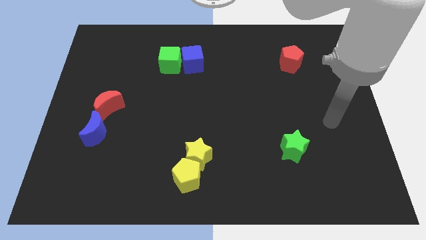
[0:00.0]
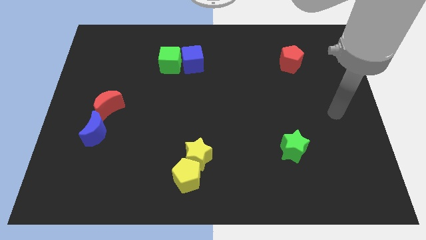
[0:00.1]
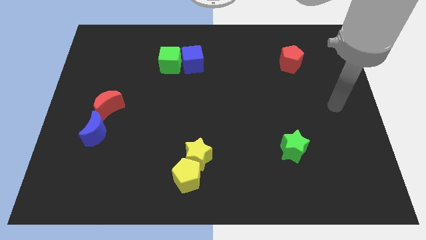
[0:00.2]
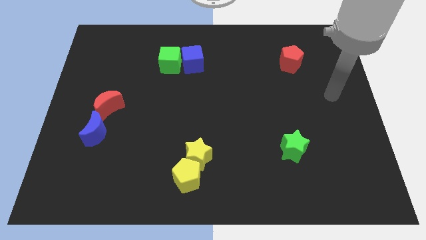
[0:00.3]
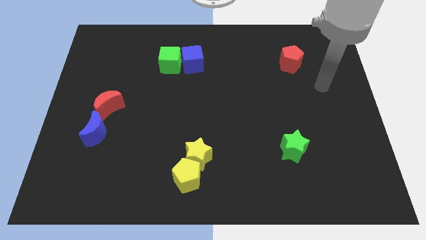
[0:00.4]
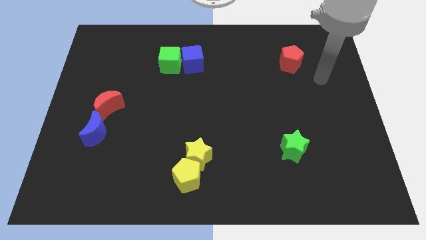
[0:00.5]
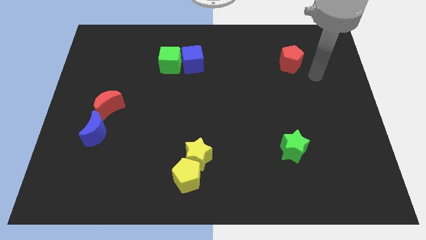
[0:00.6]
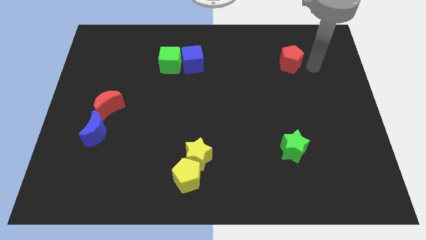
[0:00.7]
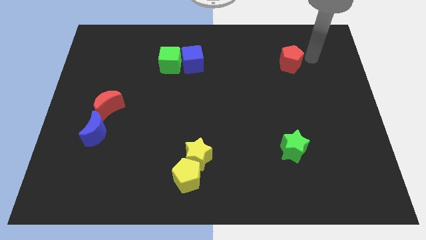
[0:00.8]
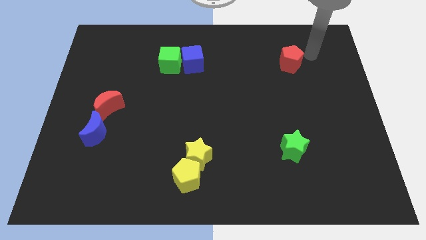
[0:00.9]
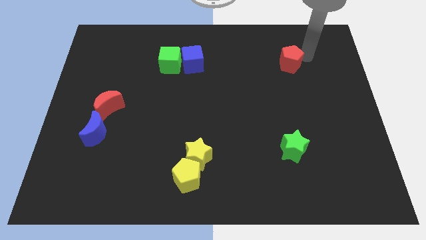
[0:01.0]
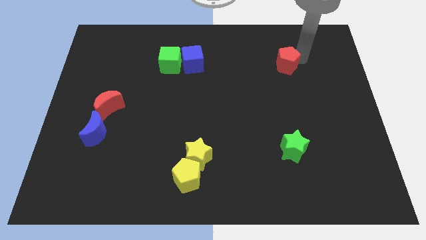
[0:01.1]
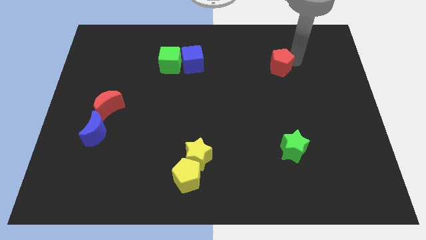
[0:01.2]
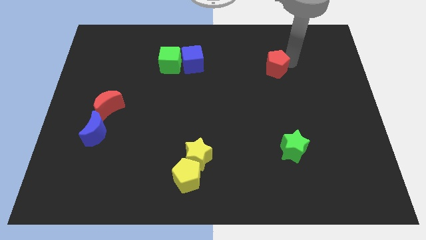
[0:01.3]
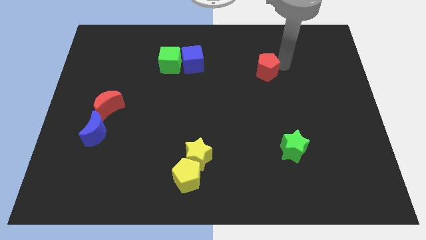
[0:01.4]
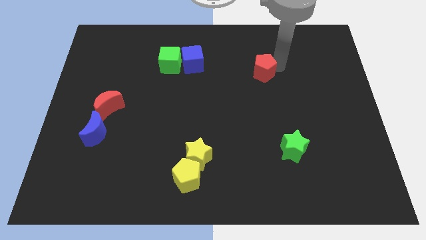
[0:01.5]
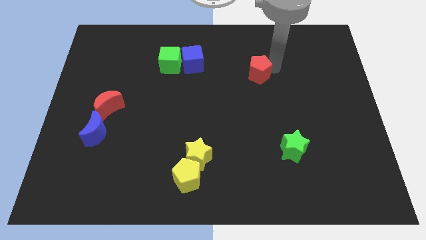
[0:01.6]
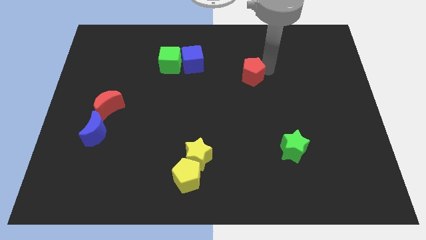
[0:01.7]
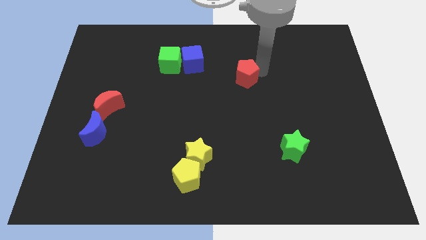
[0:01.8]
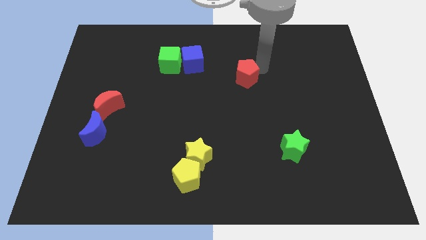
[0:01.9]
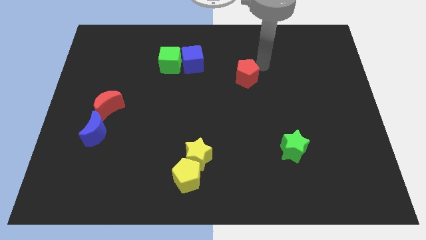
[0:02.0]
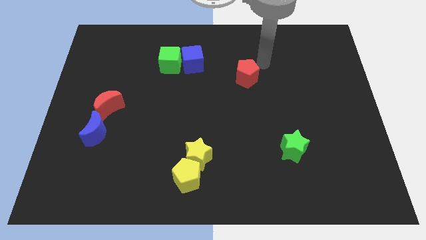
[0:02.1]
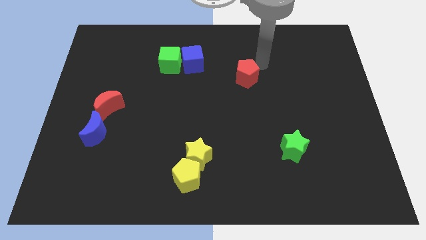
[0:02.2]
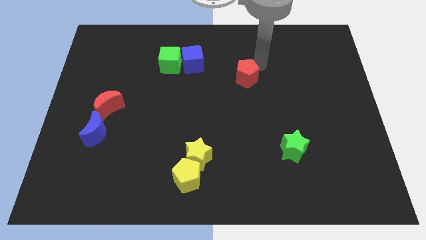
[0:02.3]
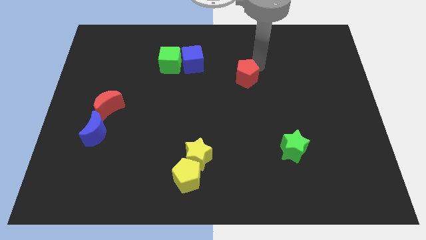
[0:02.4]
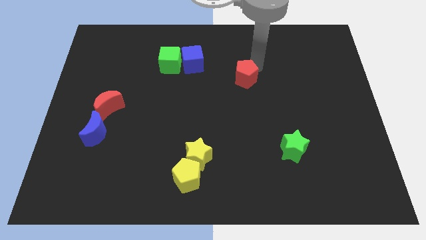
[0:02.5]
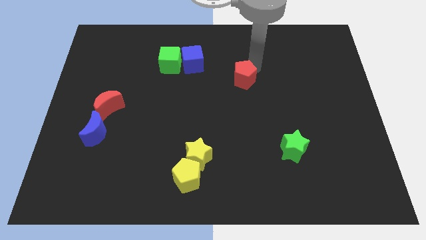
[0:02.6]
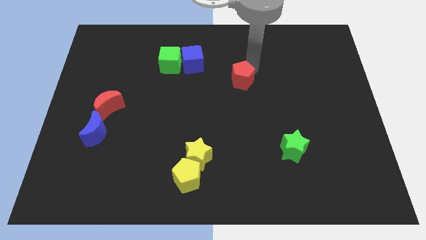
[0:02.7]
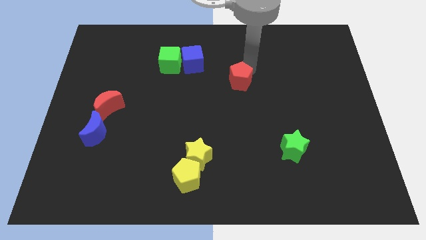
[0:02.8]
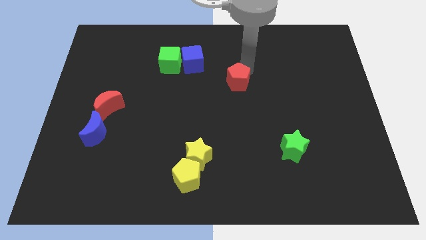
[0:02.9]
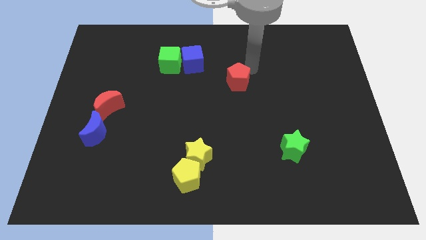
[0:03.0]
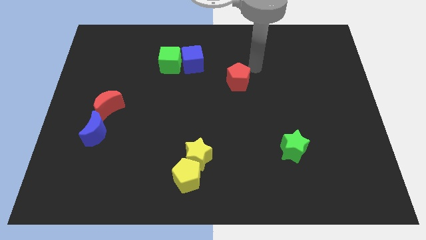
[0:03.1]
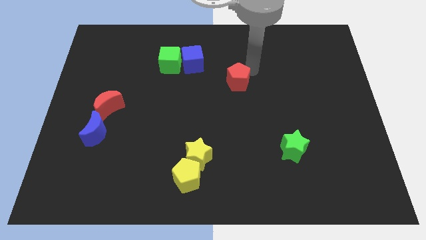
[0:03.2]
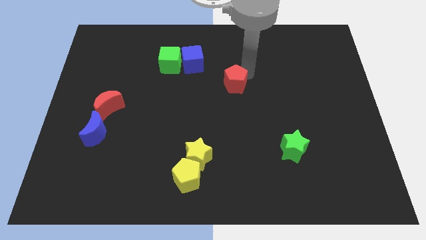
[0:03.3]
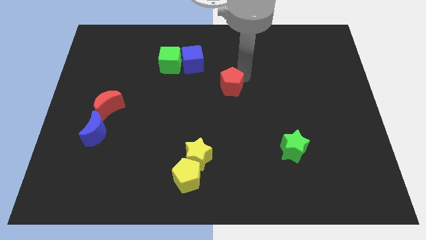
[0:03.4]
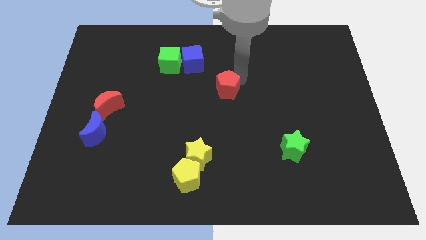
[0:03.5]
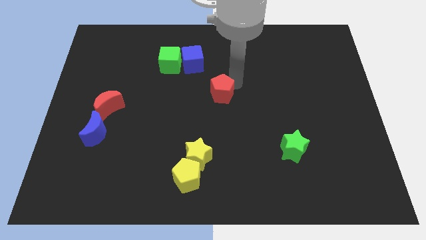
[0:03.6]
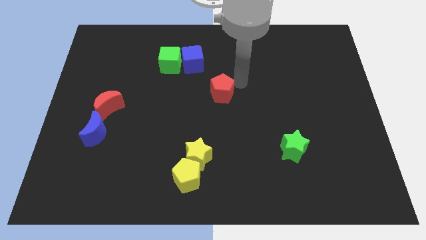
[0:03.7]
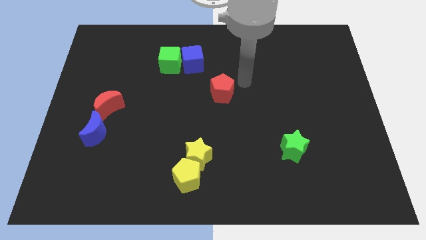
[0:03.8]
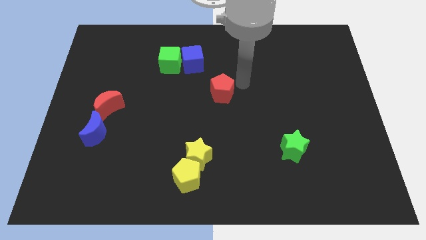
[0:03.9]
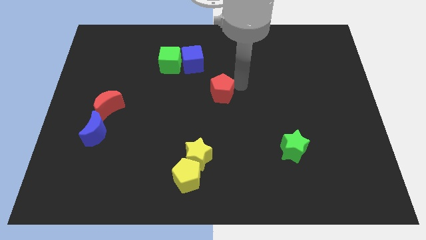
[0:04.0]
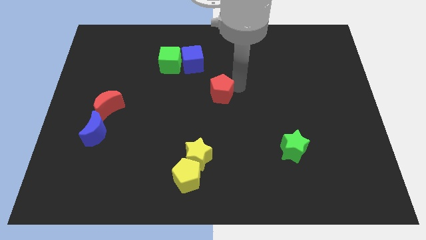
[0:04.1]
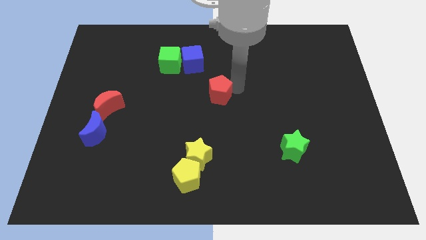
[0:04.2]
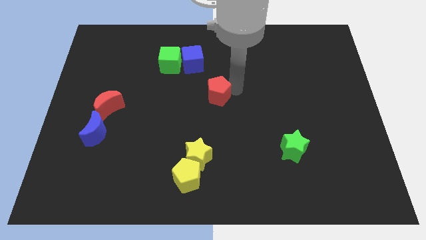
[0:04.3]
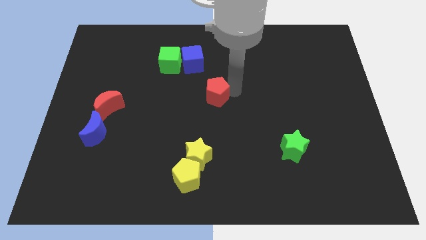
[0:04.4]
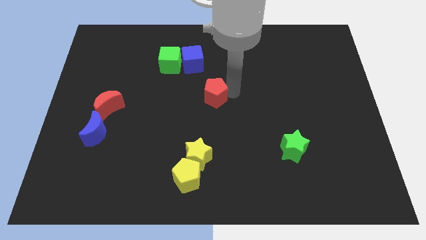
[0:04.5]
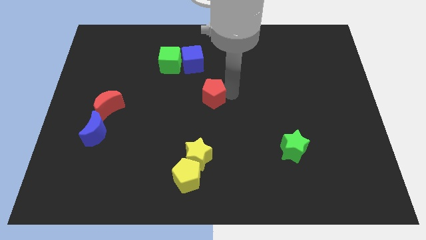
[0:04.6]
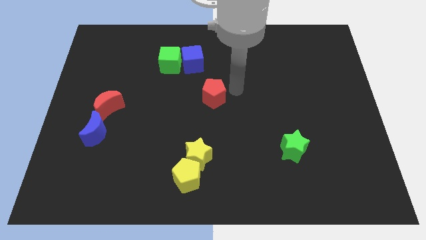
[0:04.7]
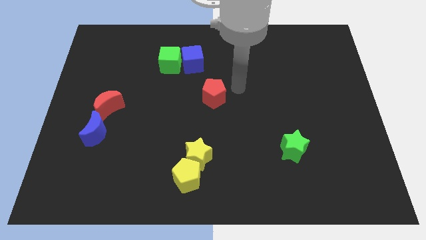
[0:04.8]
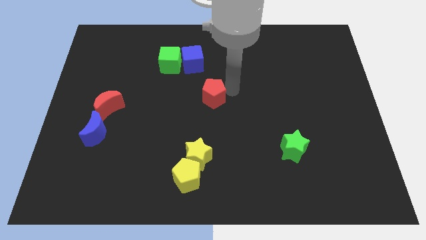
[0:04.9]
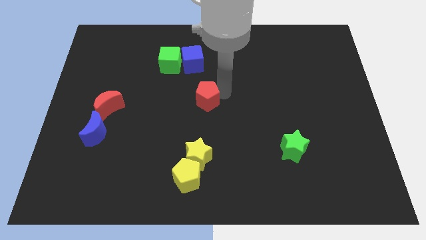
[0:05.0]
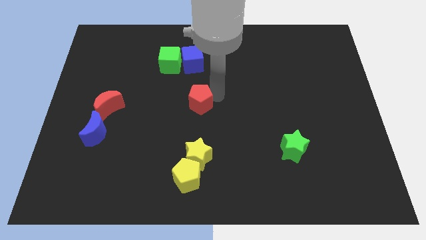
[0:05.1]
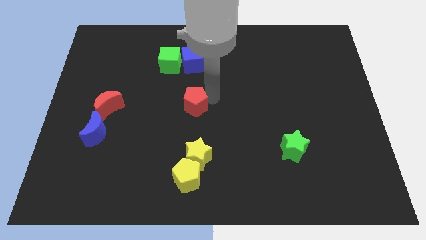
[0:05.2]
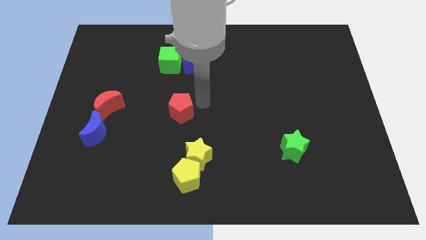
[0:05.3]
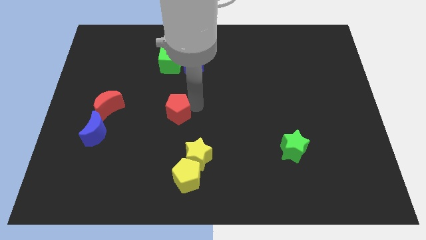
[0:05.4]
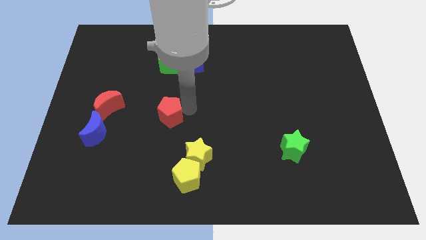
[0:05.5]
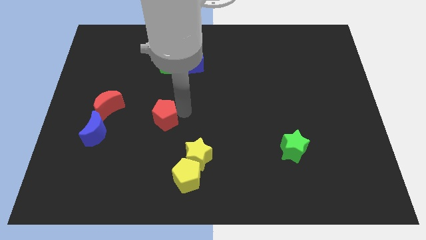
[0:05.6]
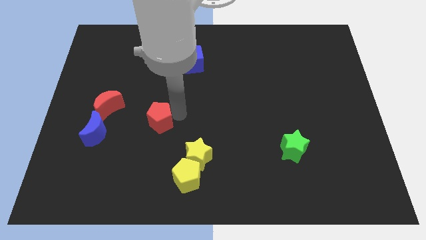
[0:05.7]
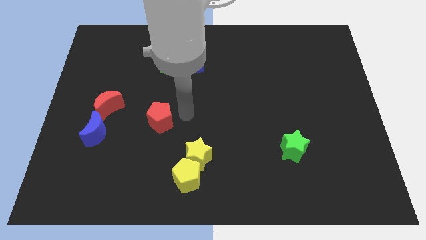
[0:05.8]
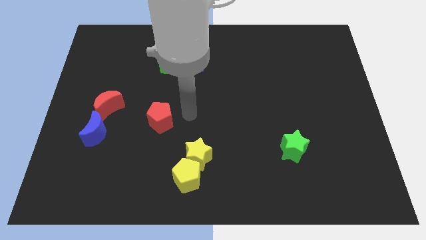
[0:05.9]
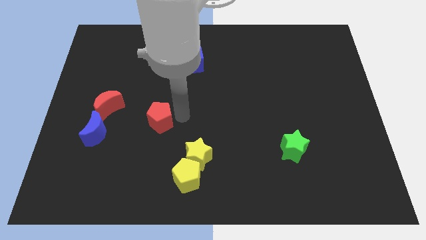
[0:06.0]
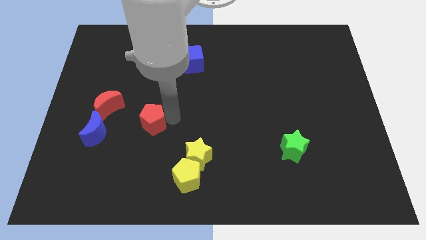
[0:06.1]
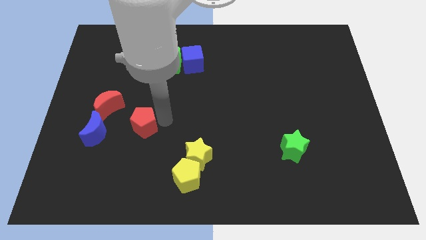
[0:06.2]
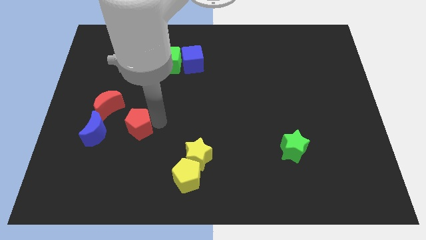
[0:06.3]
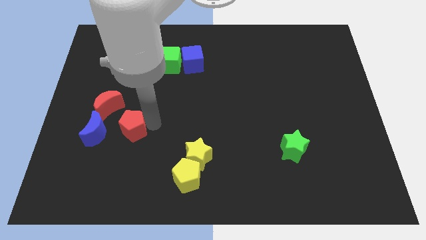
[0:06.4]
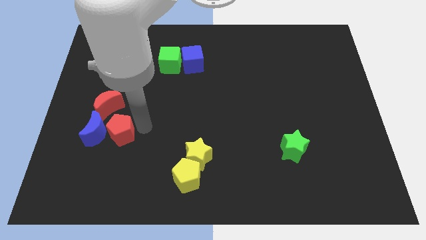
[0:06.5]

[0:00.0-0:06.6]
slide the red pentagon close to the blue moon

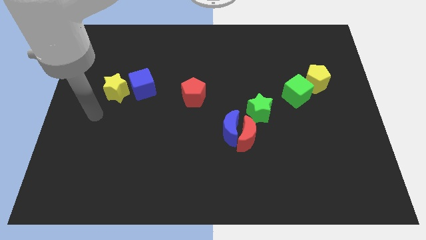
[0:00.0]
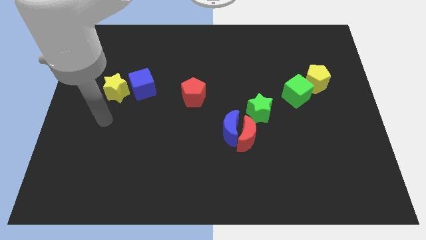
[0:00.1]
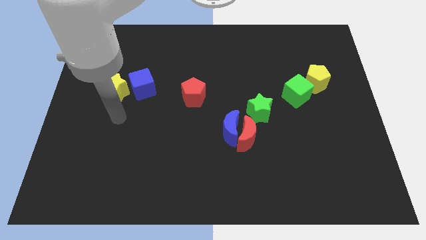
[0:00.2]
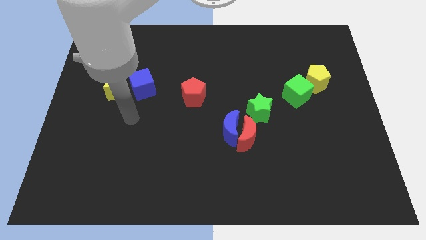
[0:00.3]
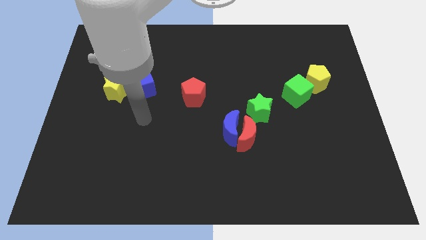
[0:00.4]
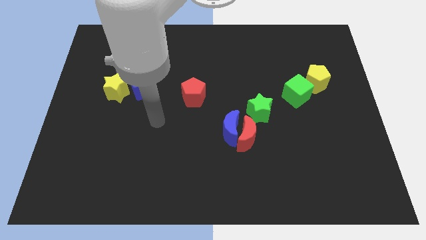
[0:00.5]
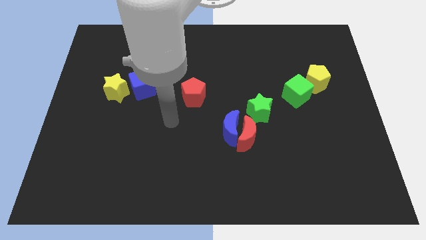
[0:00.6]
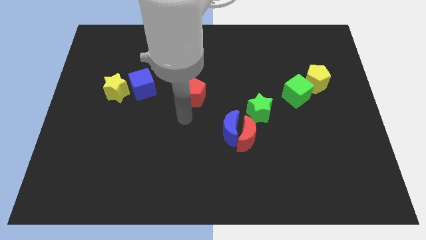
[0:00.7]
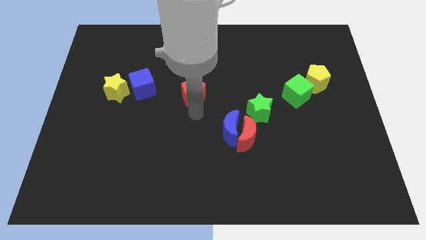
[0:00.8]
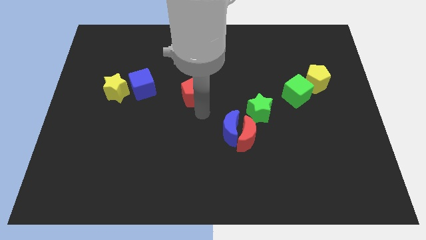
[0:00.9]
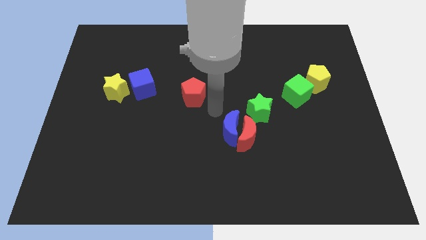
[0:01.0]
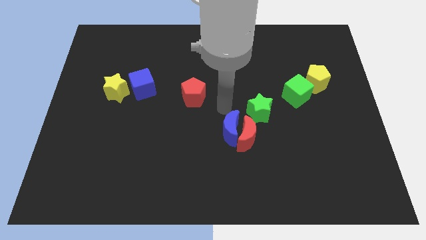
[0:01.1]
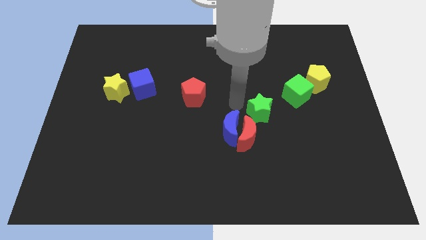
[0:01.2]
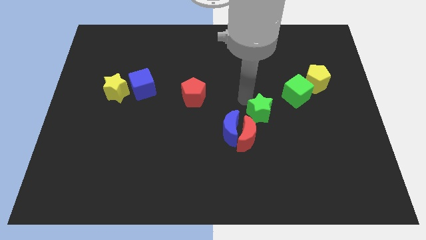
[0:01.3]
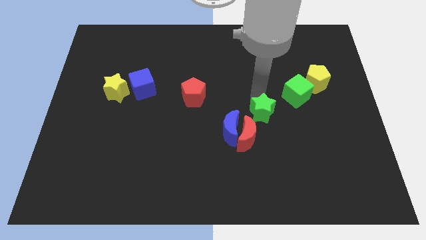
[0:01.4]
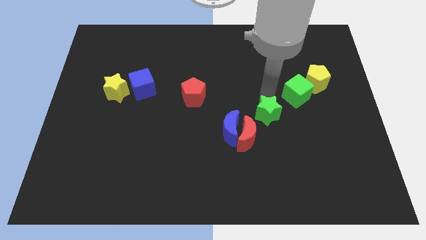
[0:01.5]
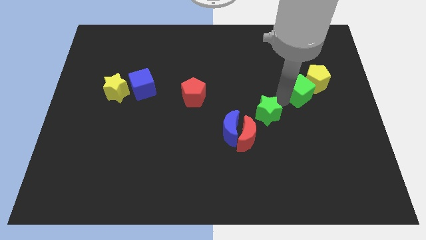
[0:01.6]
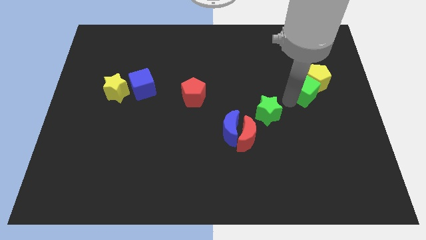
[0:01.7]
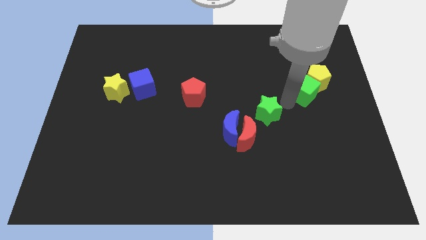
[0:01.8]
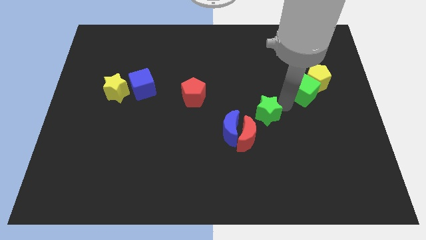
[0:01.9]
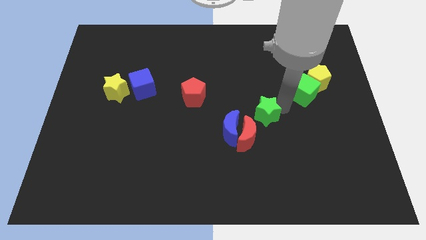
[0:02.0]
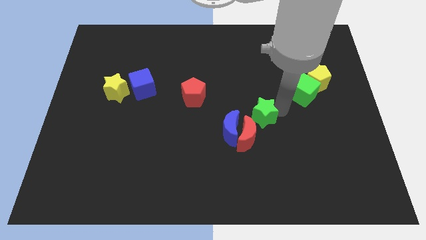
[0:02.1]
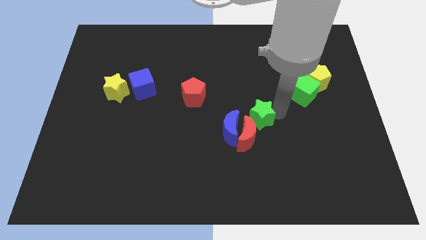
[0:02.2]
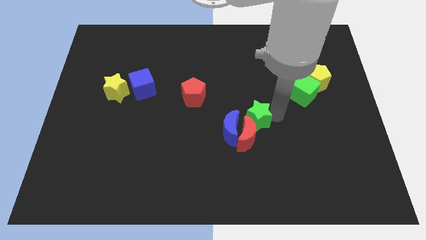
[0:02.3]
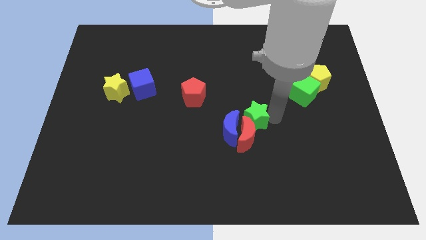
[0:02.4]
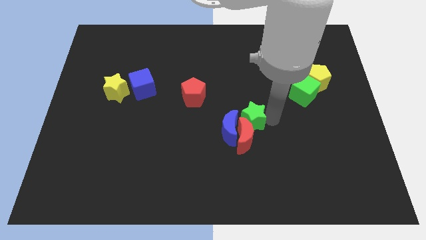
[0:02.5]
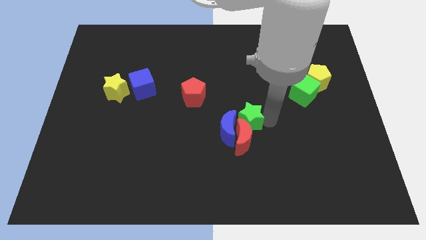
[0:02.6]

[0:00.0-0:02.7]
move the green star to the blue moon
